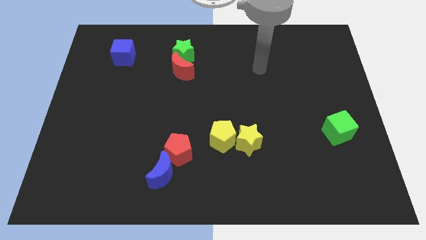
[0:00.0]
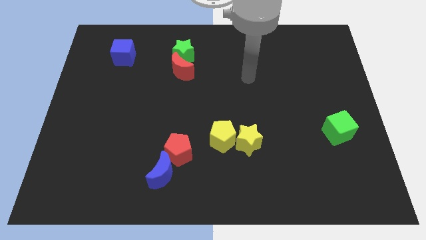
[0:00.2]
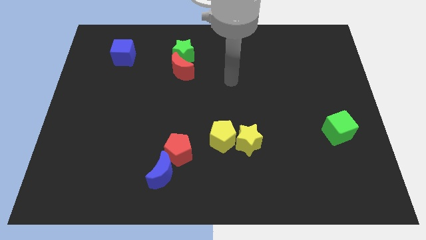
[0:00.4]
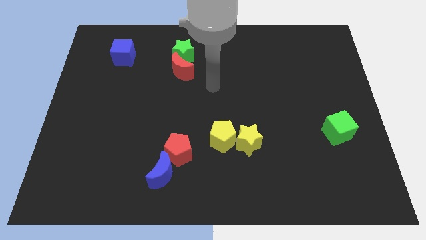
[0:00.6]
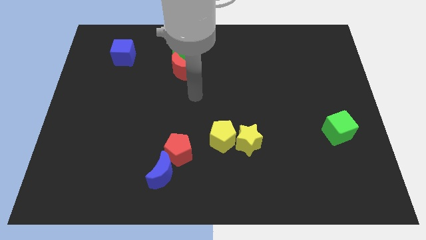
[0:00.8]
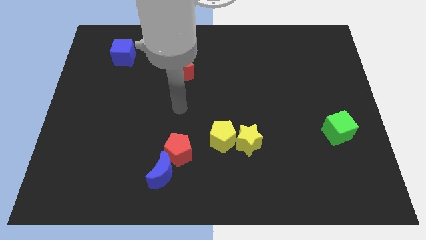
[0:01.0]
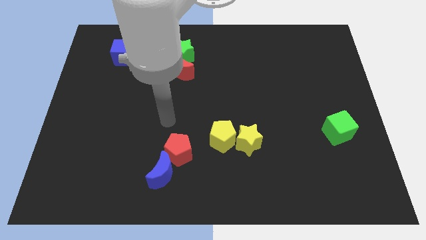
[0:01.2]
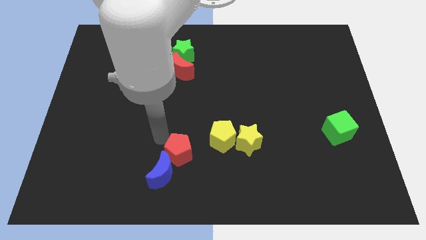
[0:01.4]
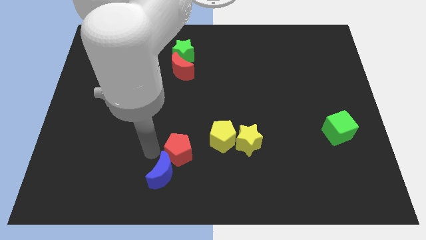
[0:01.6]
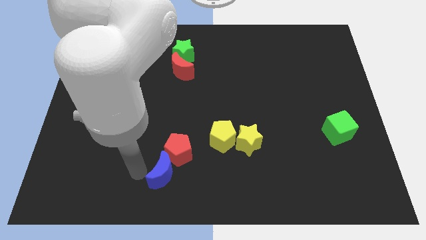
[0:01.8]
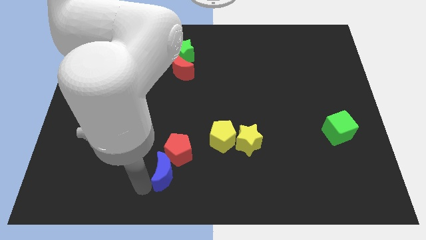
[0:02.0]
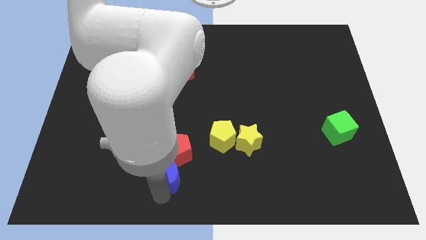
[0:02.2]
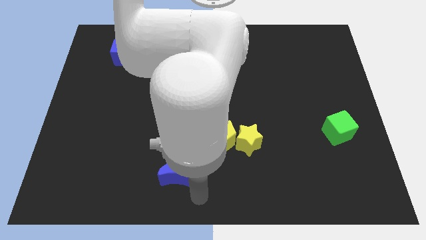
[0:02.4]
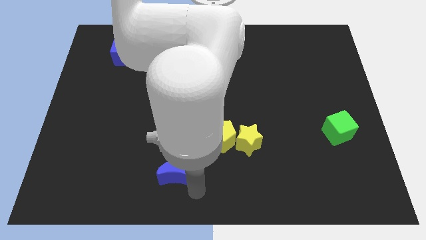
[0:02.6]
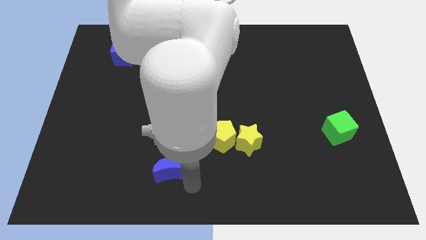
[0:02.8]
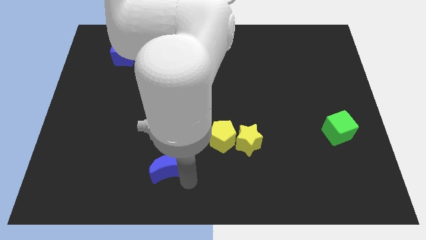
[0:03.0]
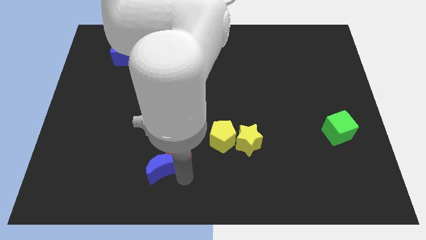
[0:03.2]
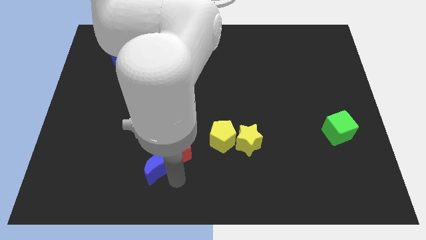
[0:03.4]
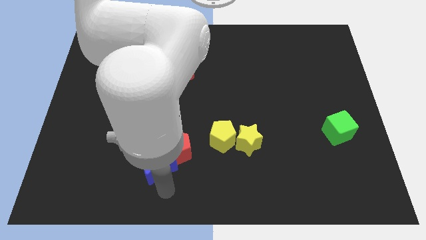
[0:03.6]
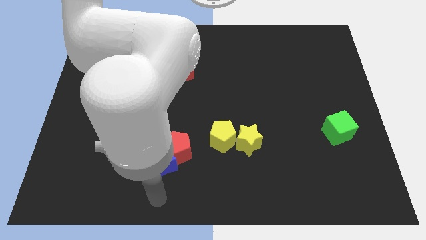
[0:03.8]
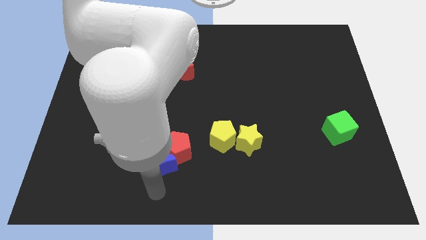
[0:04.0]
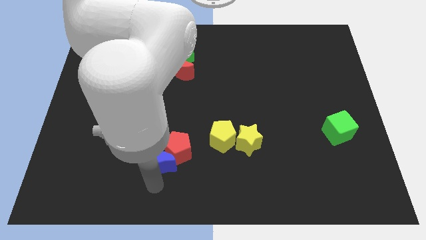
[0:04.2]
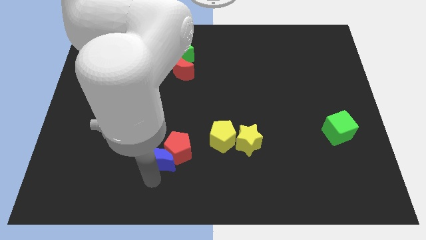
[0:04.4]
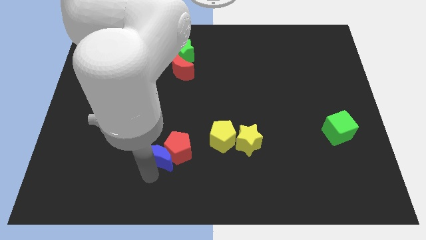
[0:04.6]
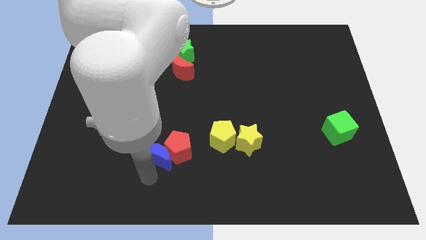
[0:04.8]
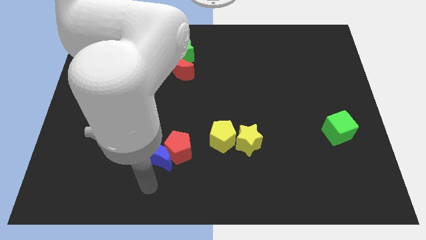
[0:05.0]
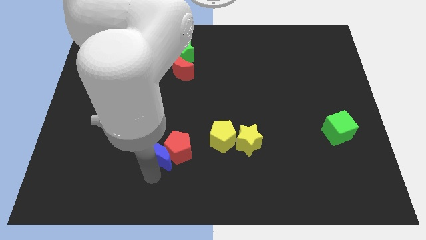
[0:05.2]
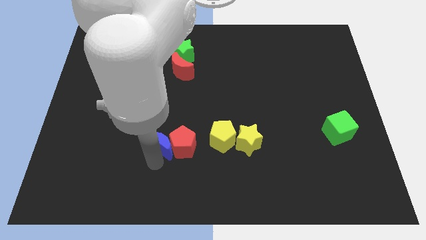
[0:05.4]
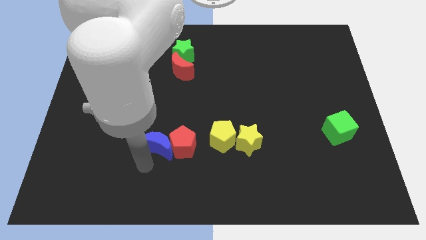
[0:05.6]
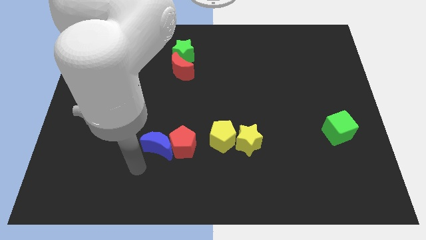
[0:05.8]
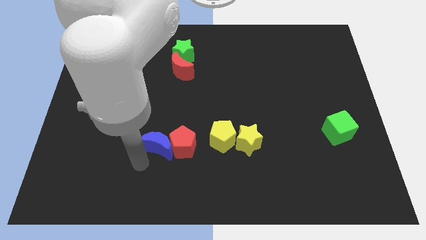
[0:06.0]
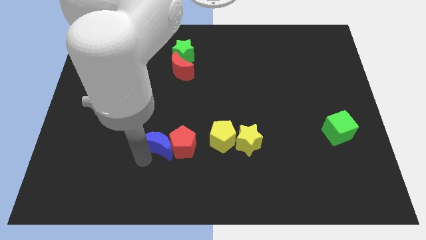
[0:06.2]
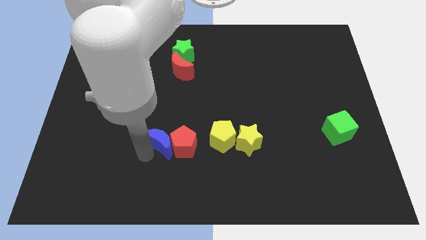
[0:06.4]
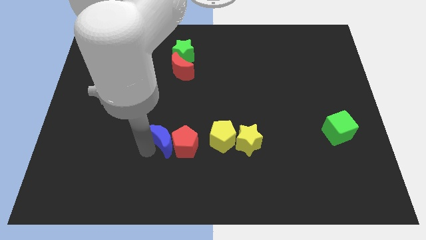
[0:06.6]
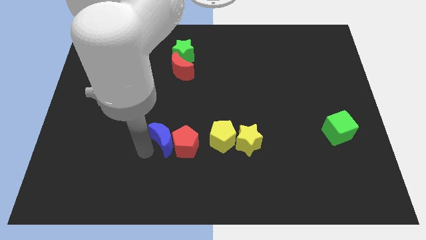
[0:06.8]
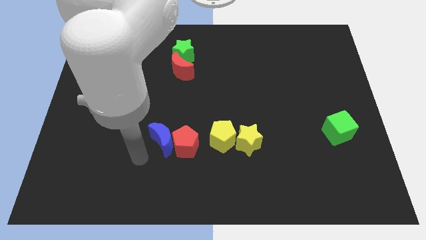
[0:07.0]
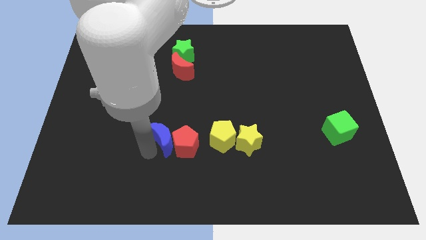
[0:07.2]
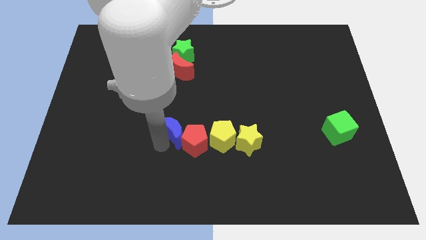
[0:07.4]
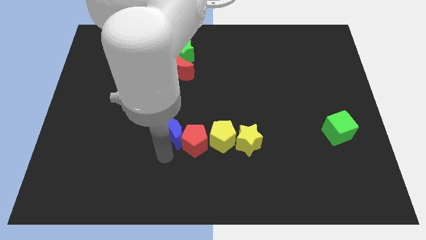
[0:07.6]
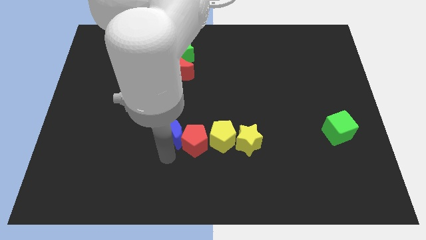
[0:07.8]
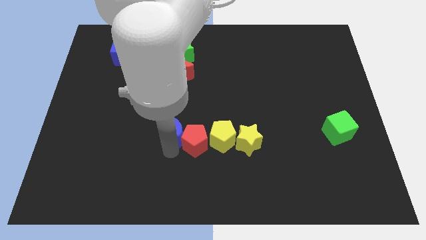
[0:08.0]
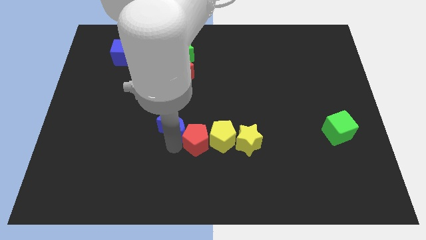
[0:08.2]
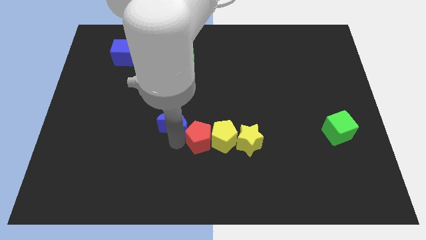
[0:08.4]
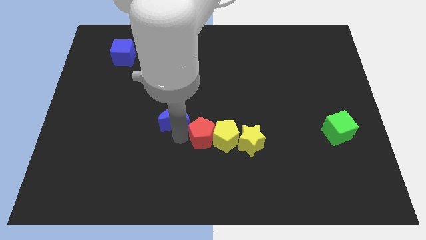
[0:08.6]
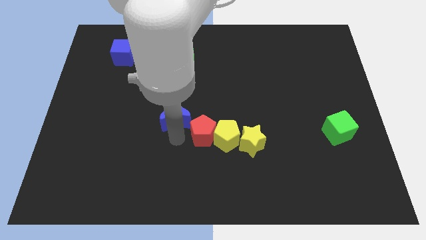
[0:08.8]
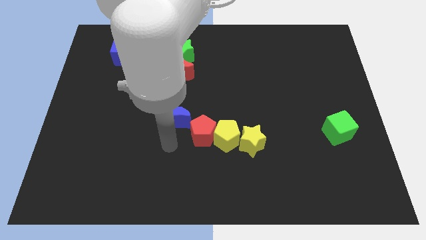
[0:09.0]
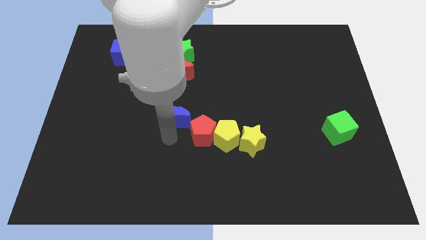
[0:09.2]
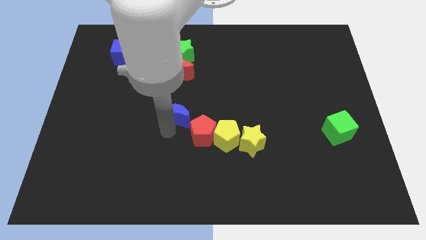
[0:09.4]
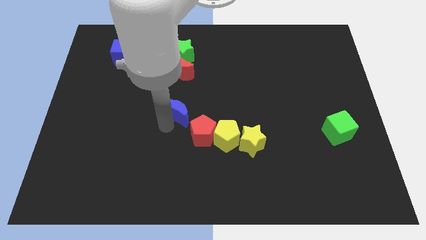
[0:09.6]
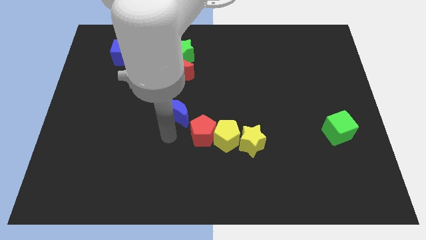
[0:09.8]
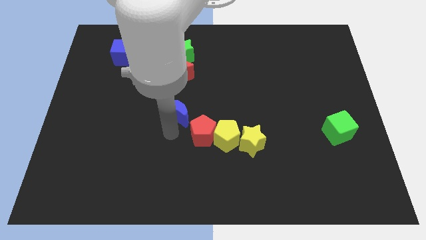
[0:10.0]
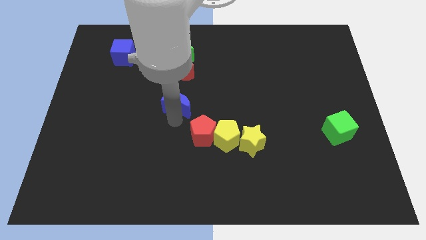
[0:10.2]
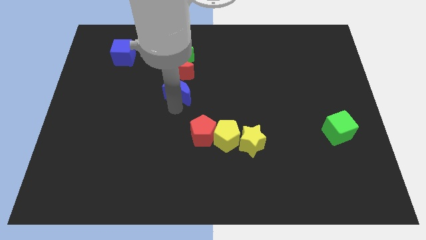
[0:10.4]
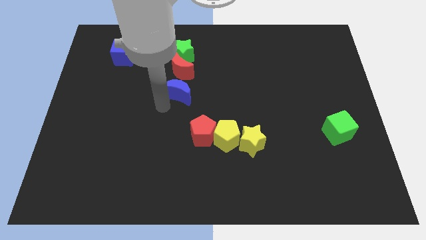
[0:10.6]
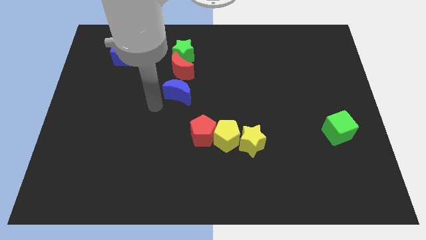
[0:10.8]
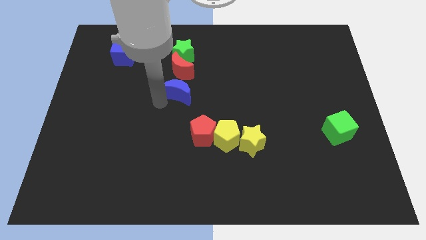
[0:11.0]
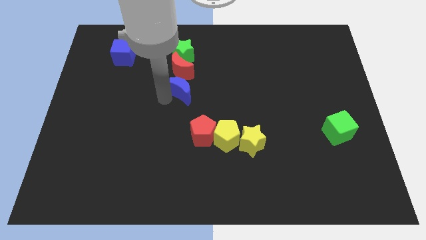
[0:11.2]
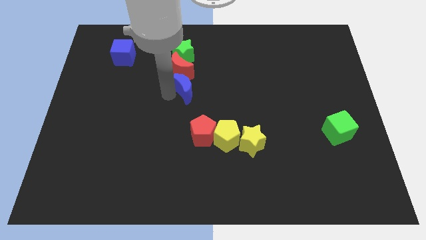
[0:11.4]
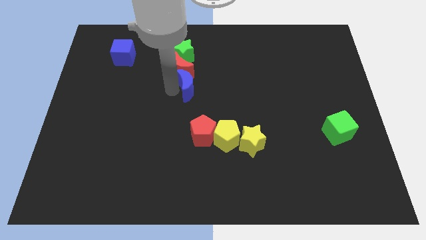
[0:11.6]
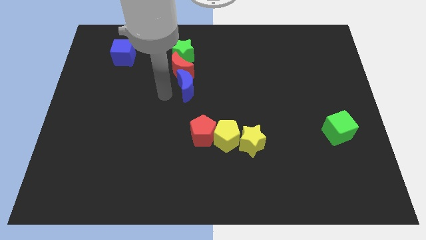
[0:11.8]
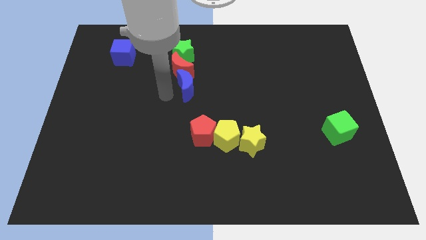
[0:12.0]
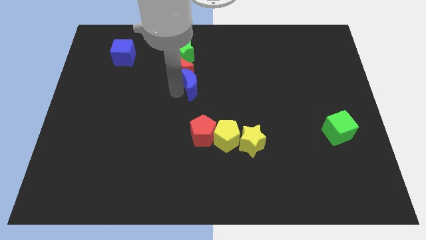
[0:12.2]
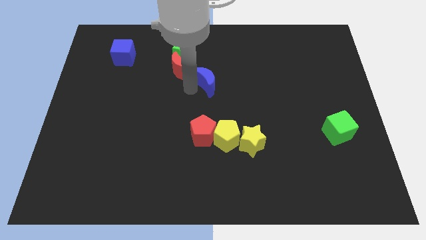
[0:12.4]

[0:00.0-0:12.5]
move the blue moon to the right of the red moon

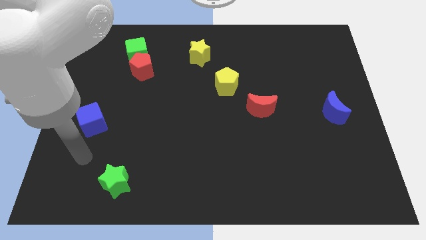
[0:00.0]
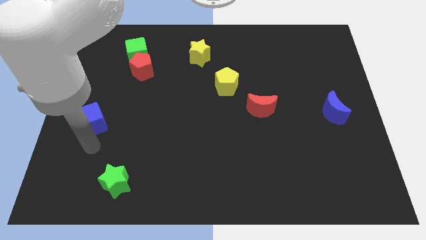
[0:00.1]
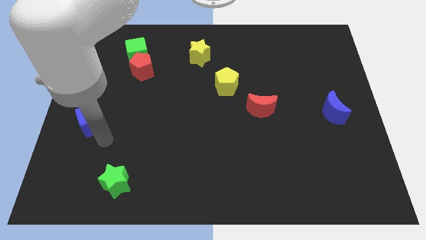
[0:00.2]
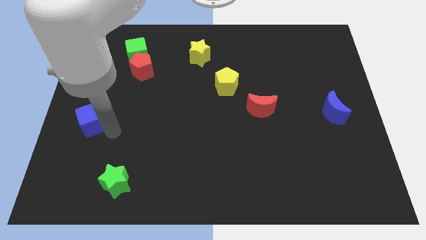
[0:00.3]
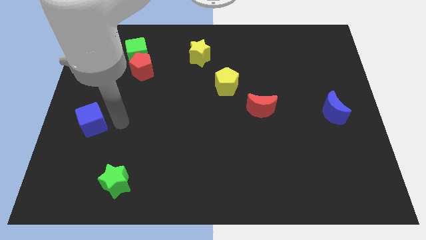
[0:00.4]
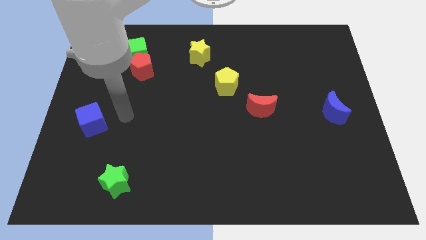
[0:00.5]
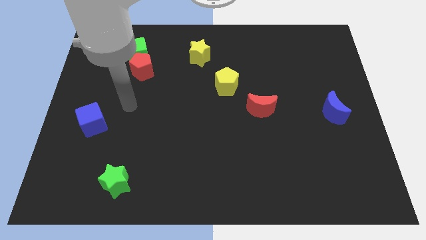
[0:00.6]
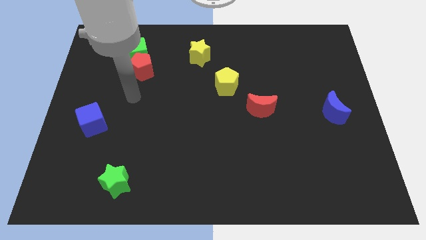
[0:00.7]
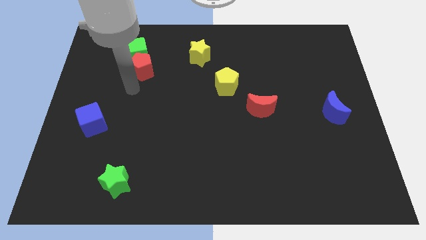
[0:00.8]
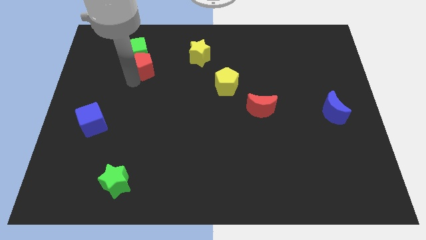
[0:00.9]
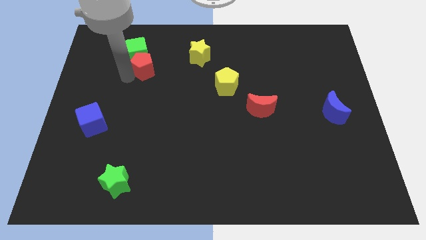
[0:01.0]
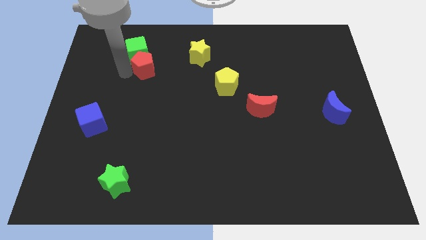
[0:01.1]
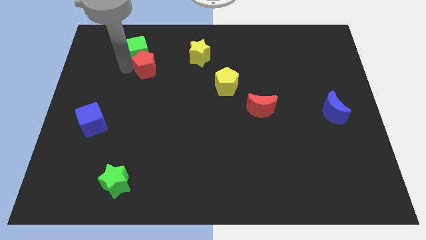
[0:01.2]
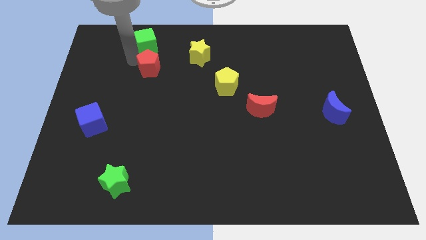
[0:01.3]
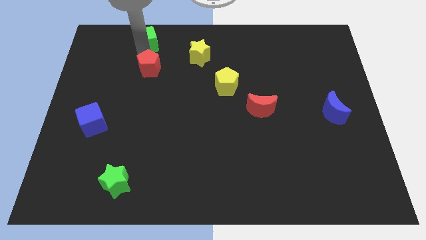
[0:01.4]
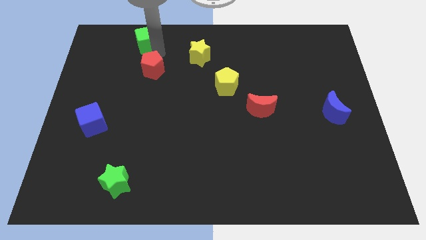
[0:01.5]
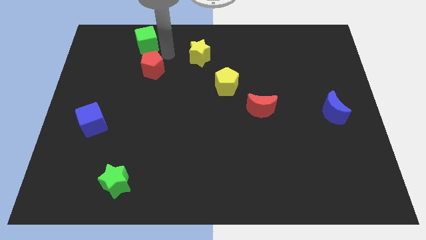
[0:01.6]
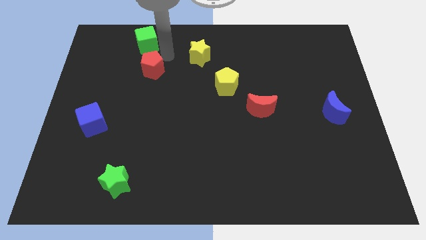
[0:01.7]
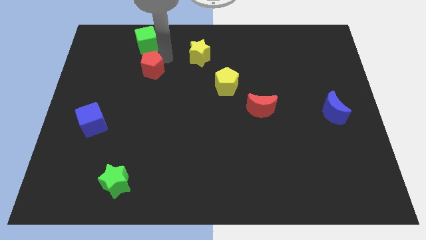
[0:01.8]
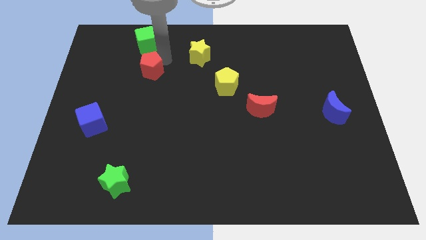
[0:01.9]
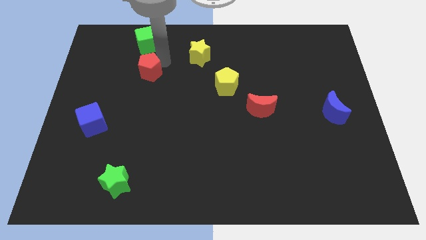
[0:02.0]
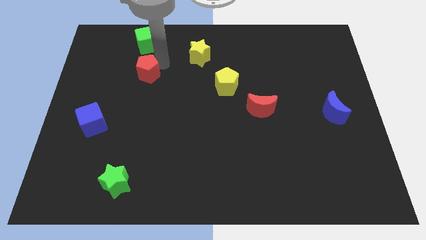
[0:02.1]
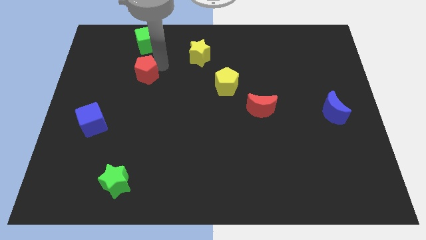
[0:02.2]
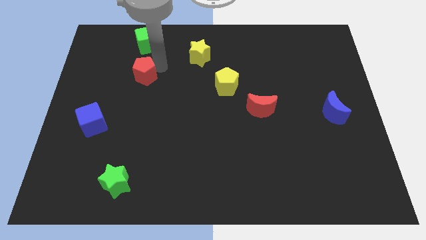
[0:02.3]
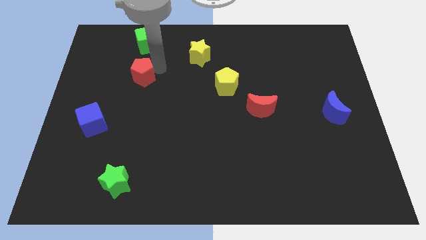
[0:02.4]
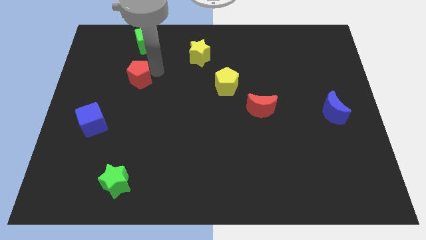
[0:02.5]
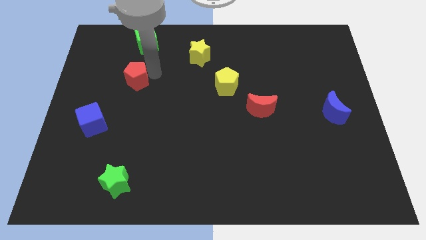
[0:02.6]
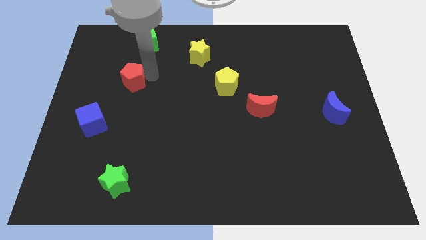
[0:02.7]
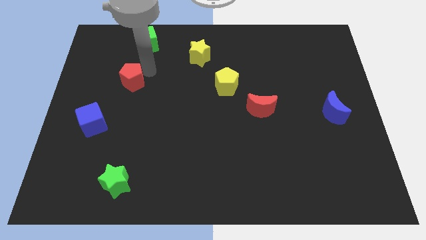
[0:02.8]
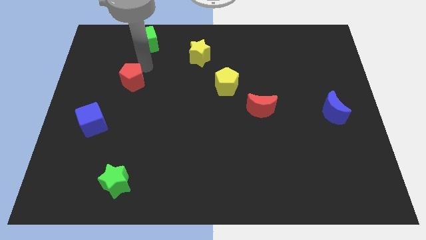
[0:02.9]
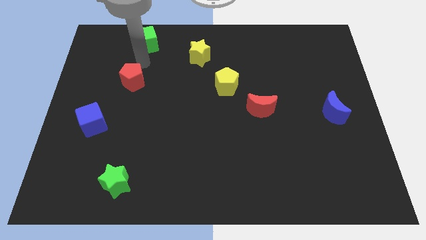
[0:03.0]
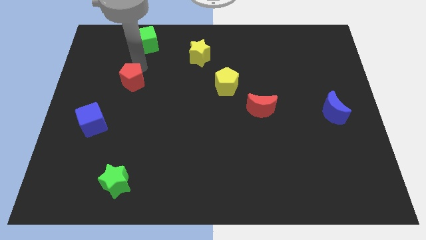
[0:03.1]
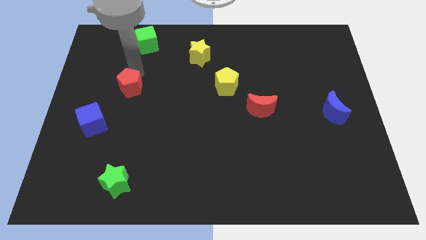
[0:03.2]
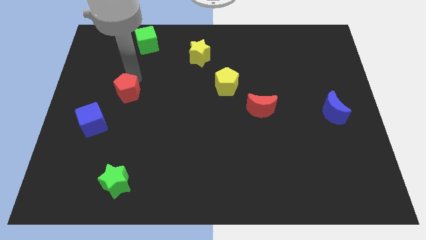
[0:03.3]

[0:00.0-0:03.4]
move the red pentagon to the top right of the blue cube
